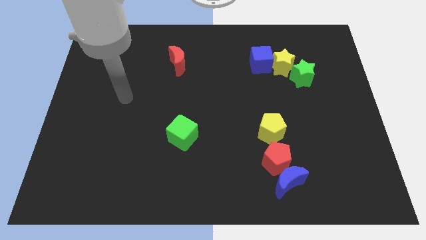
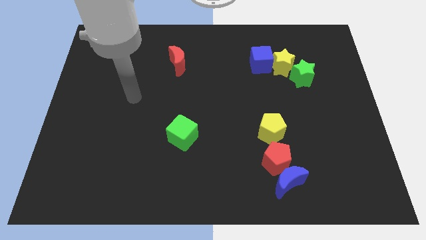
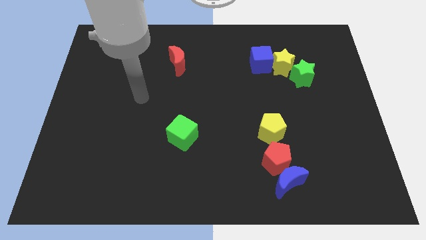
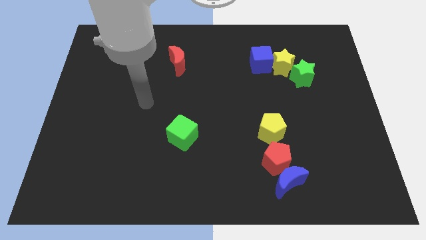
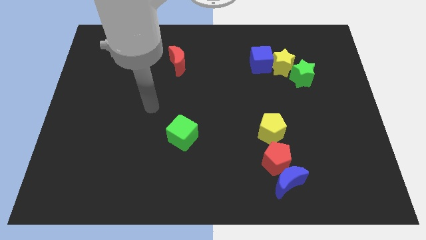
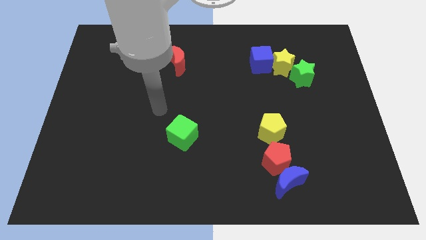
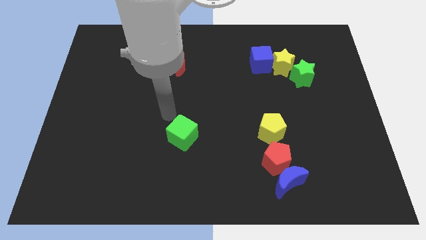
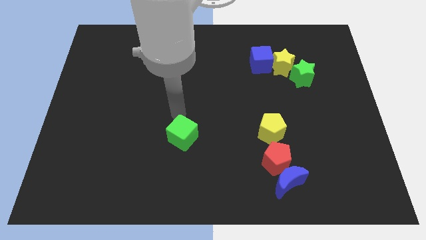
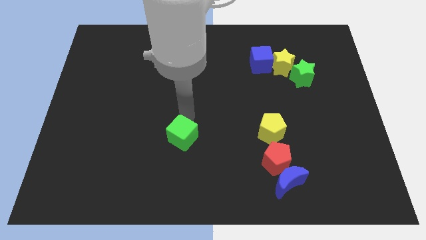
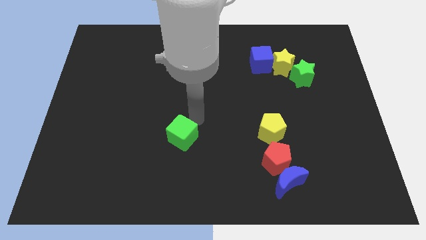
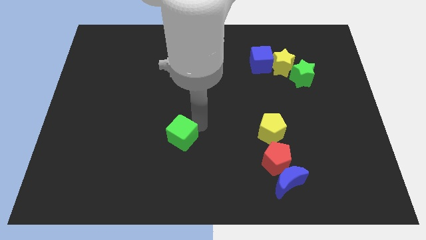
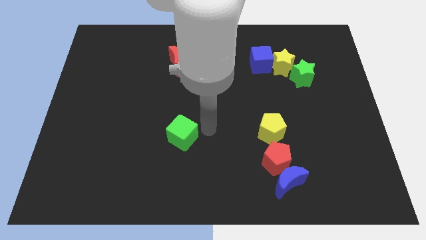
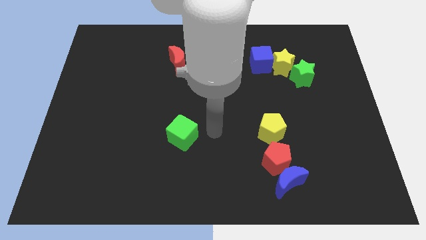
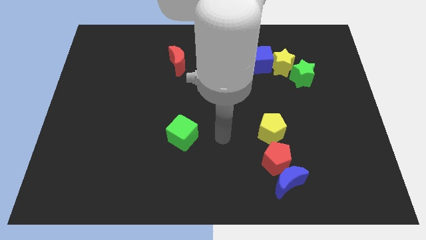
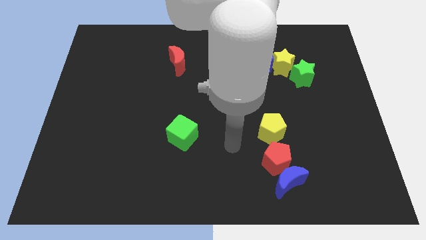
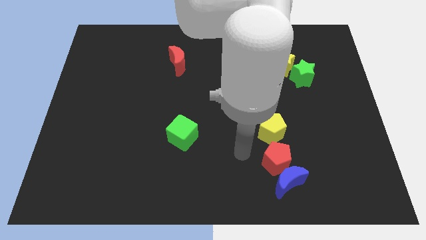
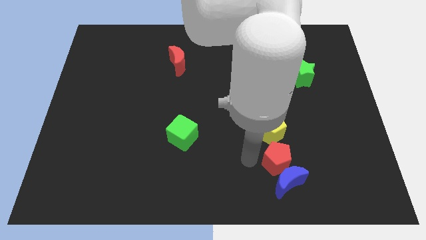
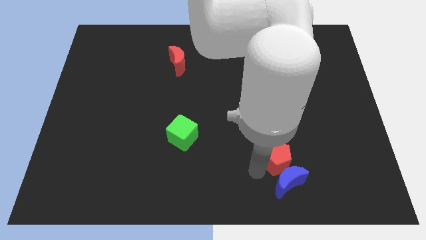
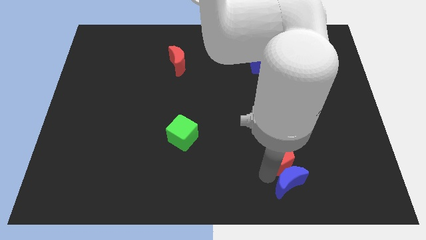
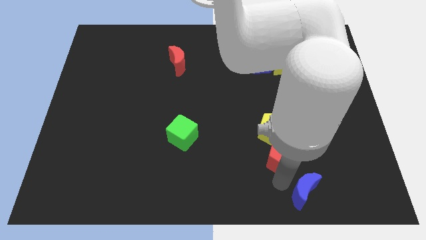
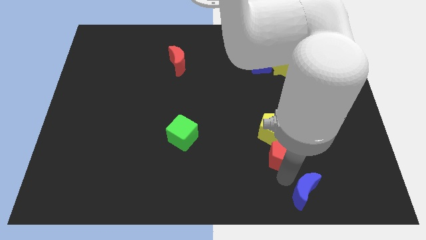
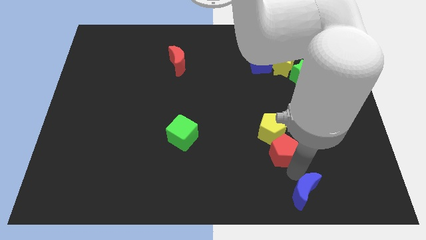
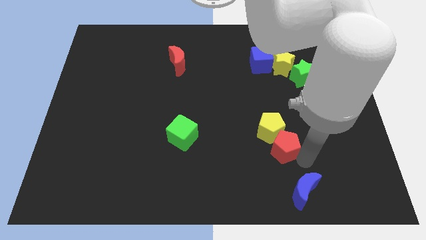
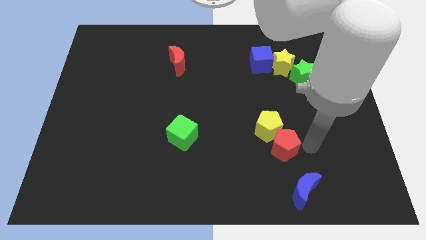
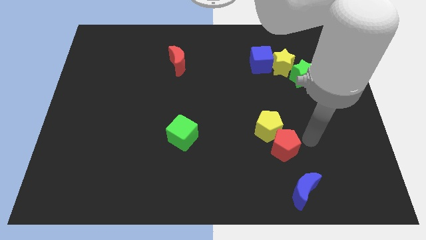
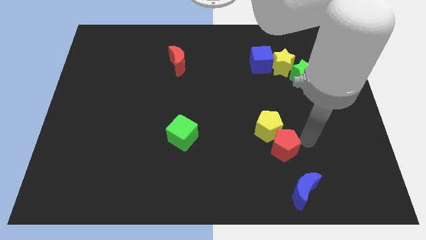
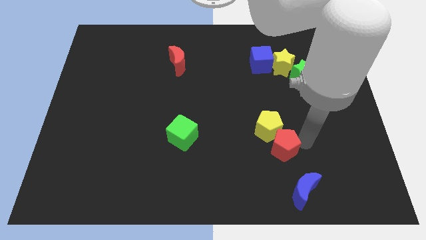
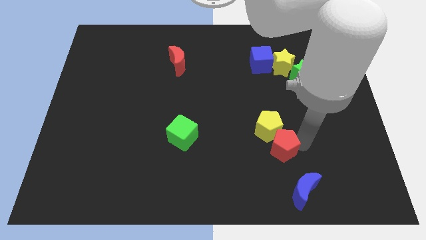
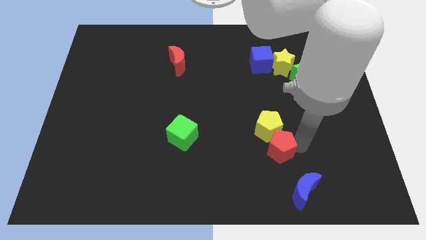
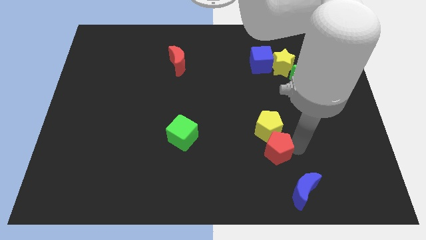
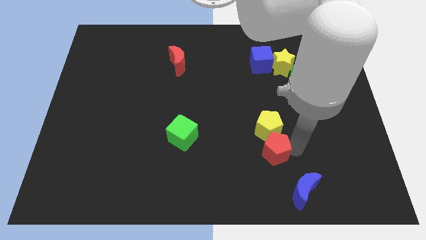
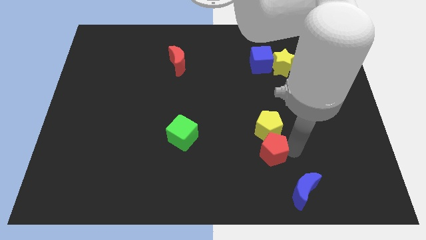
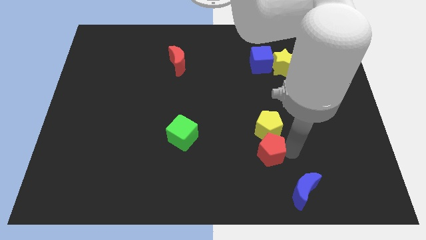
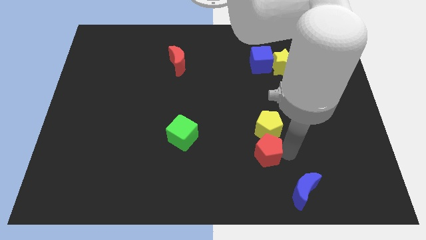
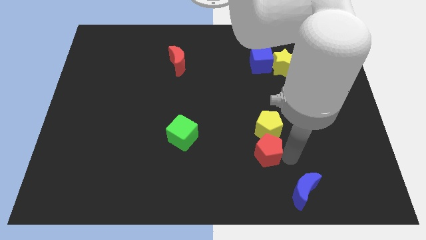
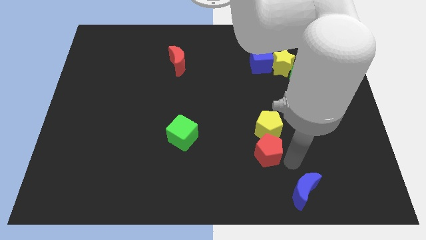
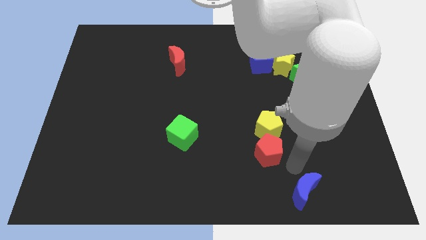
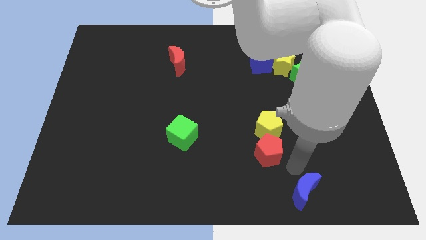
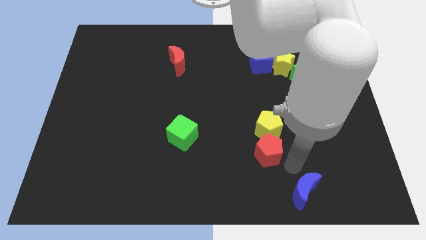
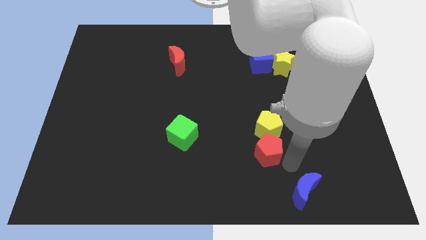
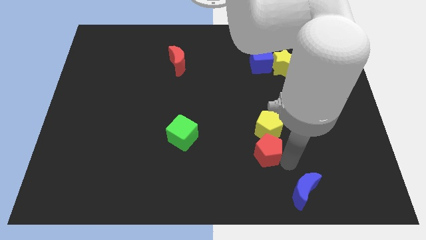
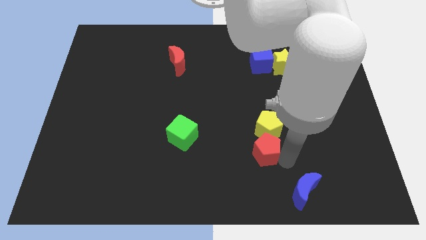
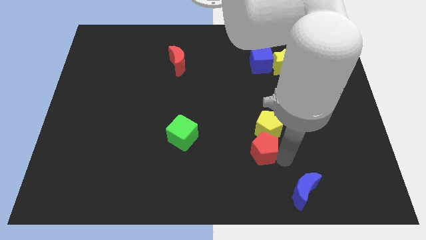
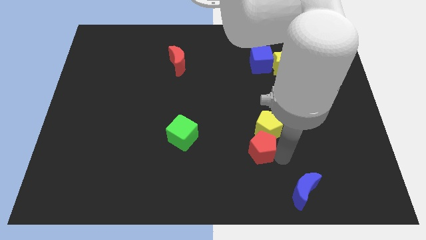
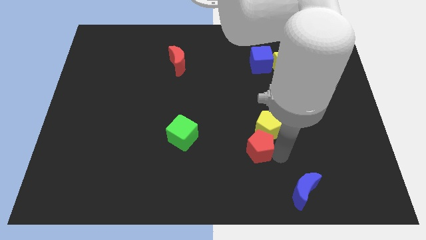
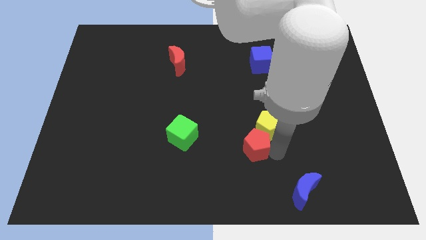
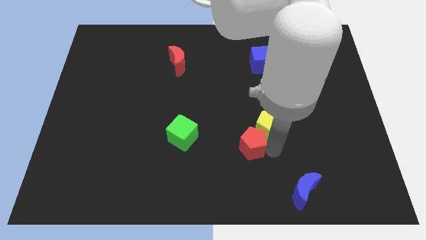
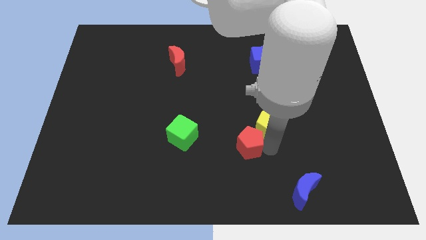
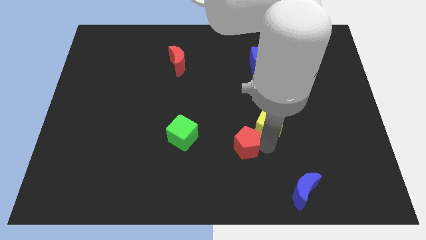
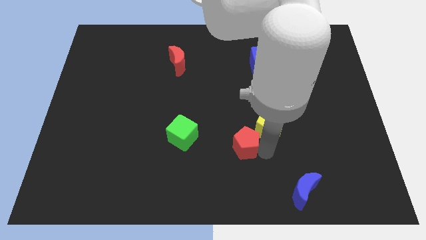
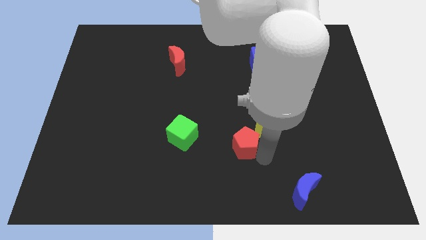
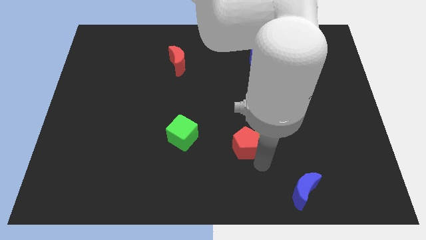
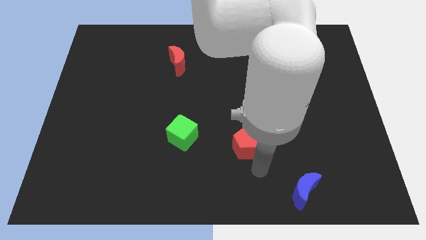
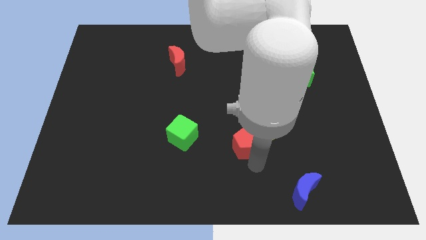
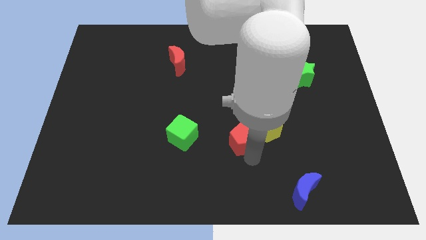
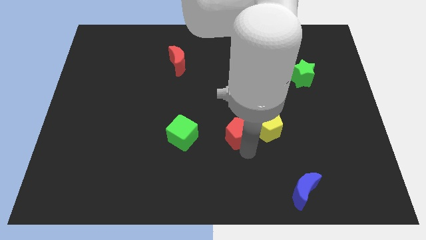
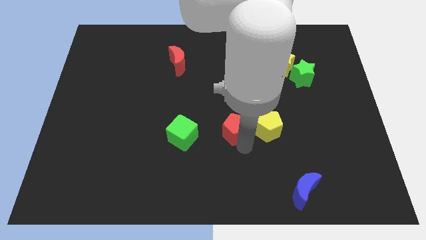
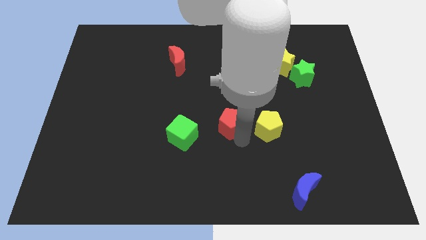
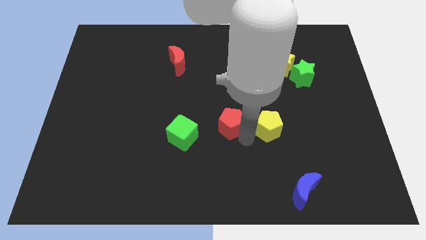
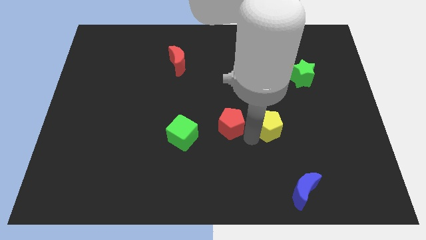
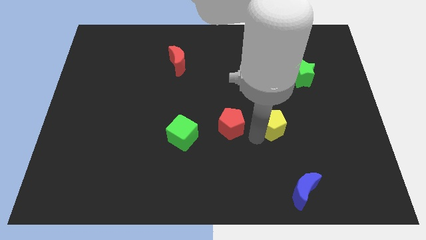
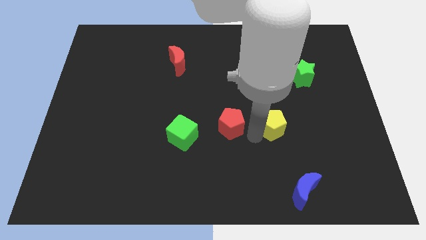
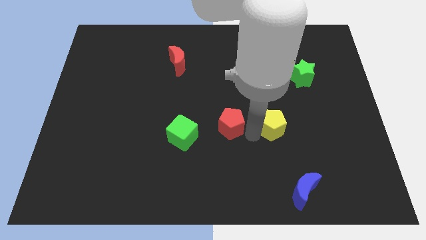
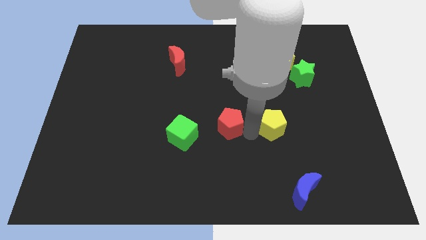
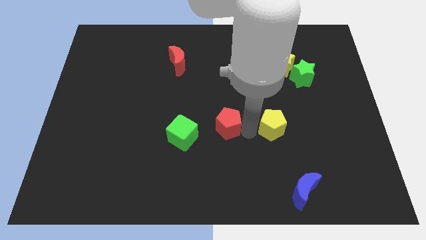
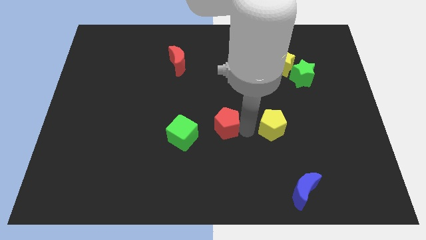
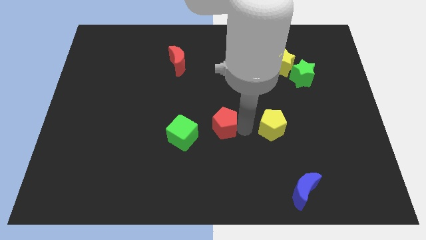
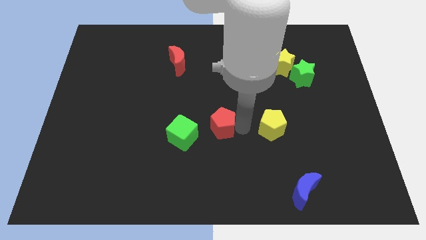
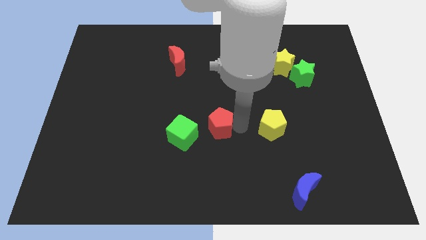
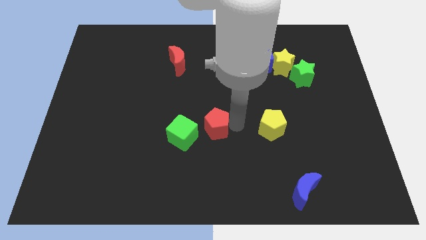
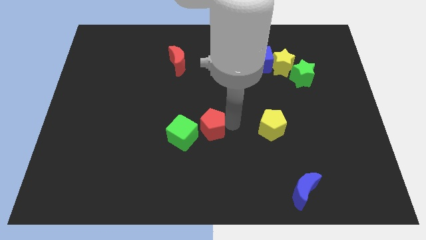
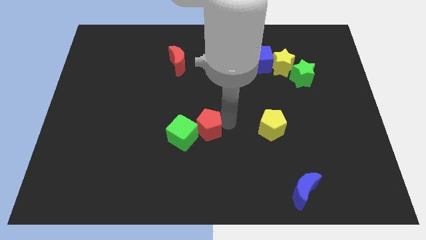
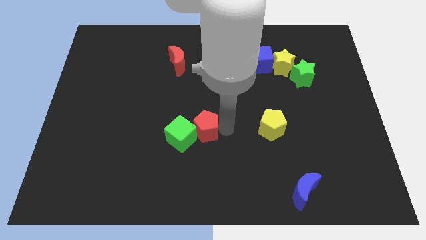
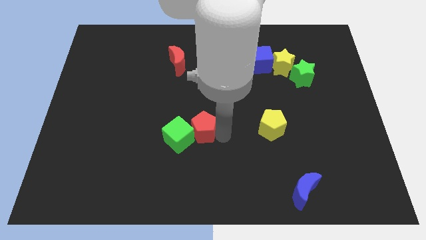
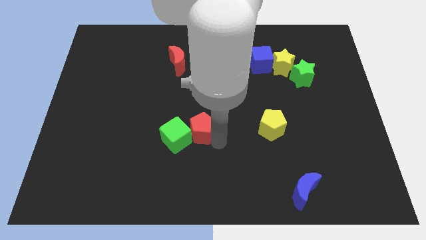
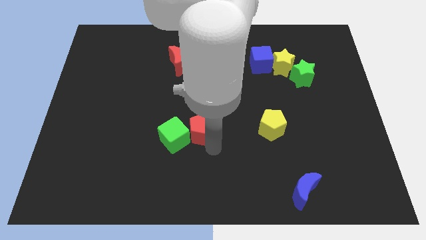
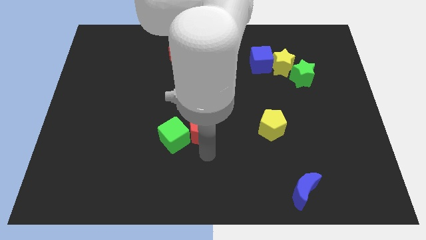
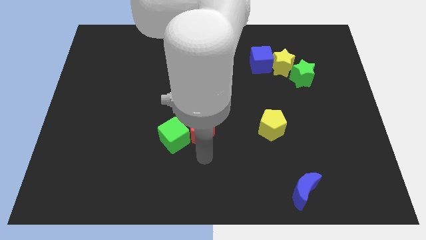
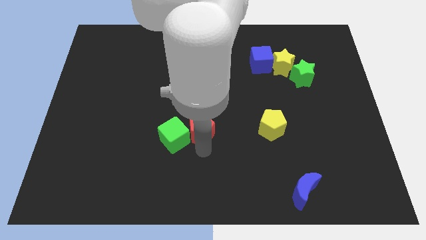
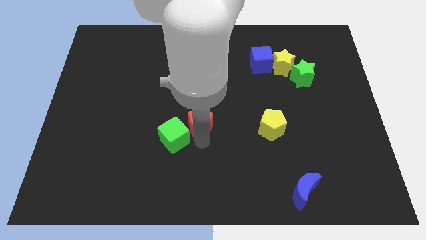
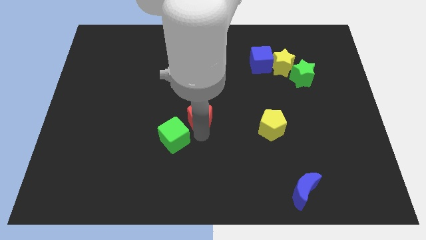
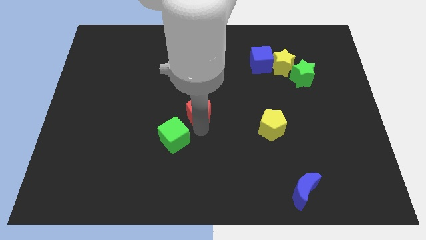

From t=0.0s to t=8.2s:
move the red pentagon diagonally up and to the left
